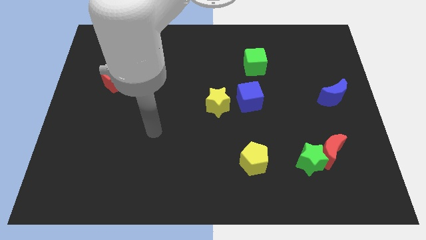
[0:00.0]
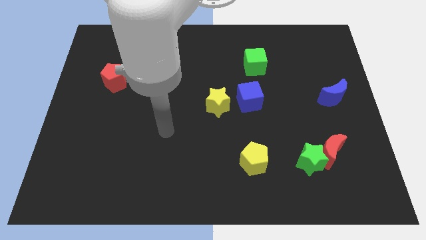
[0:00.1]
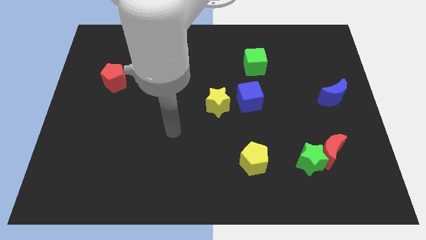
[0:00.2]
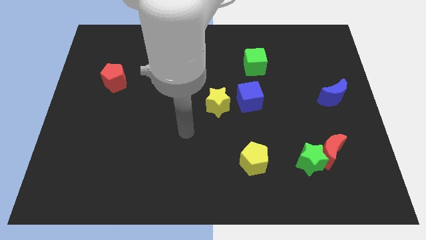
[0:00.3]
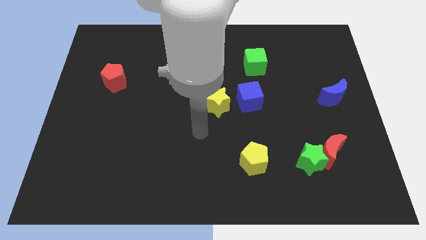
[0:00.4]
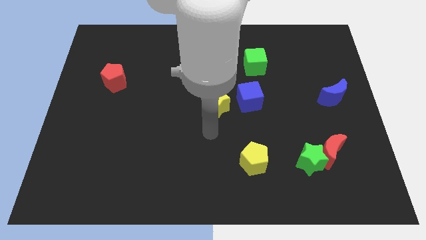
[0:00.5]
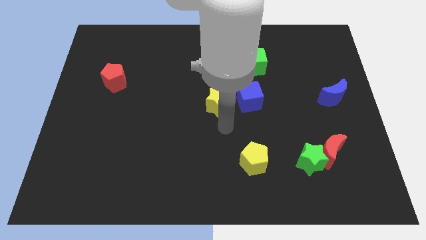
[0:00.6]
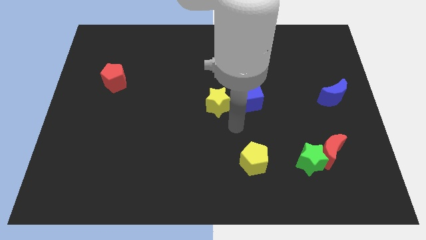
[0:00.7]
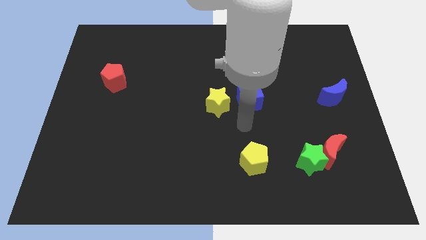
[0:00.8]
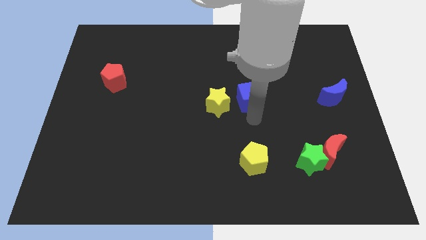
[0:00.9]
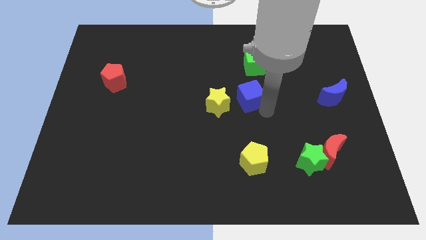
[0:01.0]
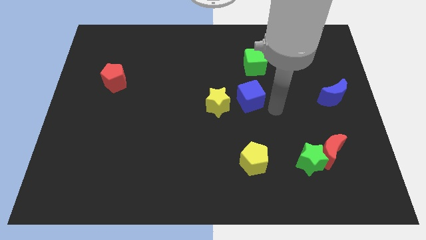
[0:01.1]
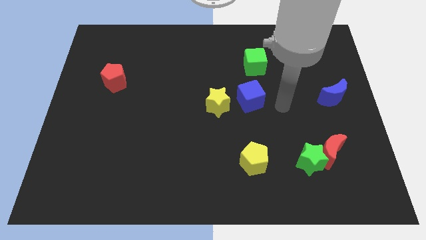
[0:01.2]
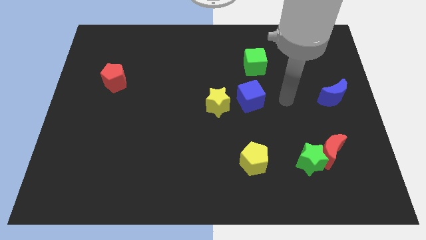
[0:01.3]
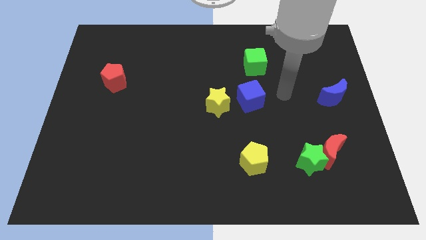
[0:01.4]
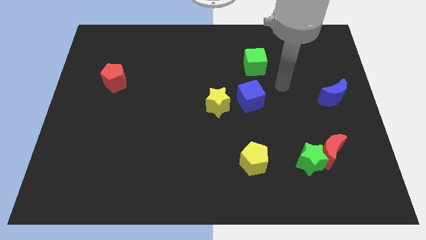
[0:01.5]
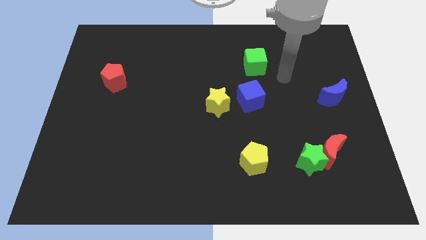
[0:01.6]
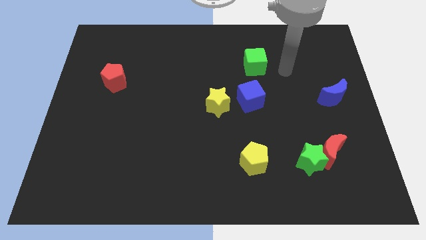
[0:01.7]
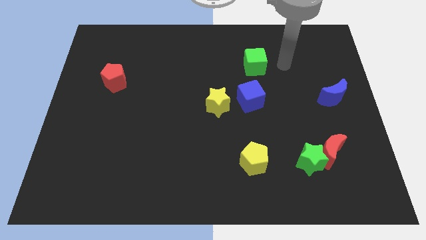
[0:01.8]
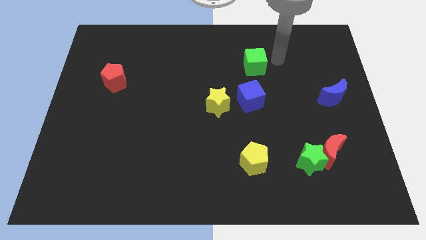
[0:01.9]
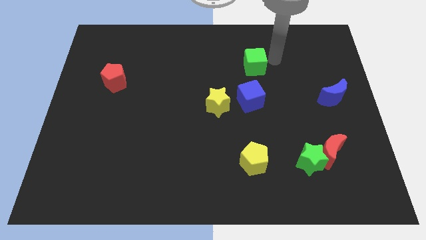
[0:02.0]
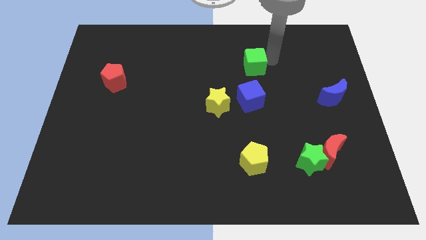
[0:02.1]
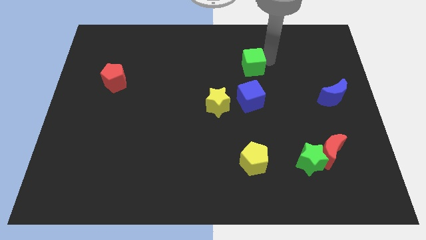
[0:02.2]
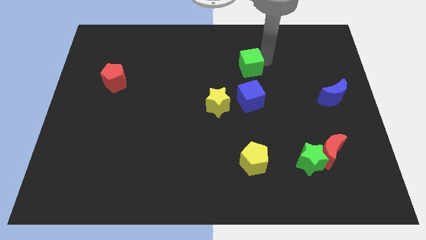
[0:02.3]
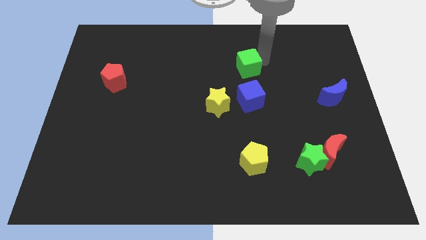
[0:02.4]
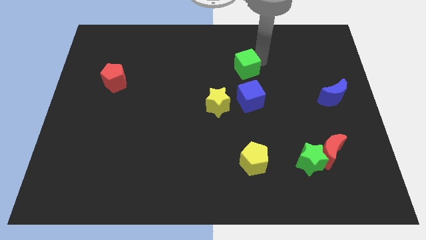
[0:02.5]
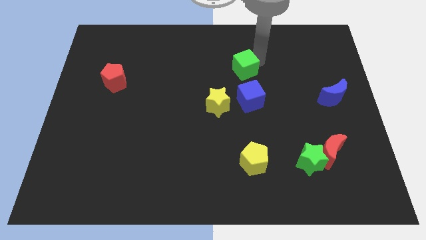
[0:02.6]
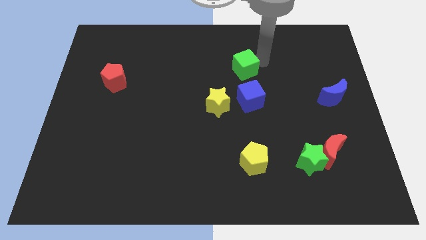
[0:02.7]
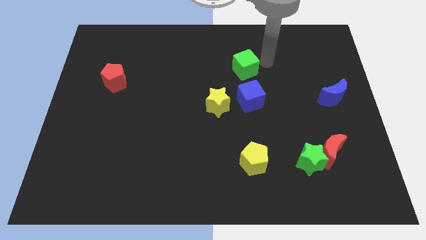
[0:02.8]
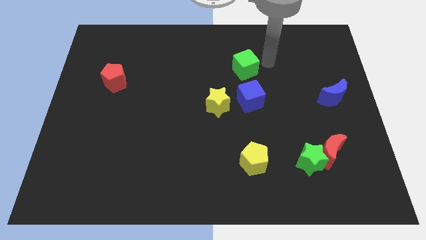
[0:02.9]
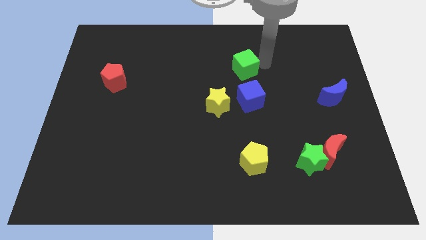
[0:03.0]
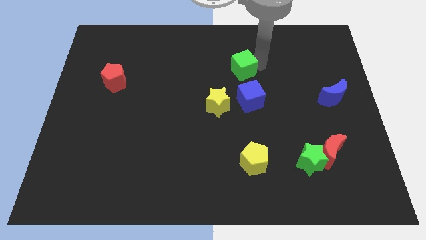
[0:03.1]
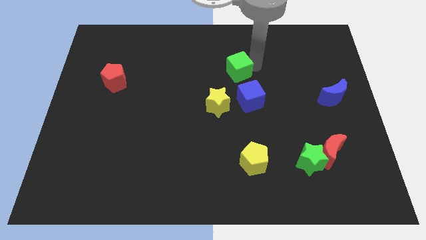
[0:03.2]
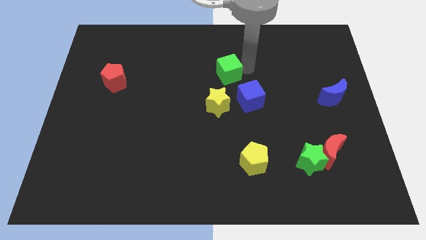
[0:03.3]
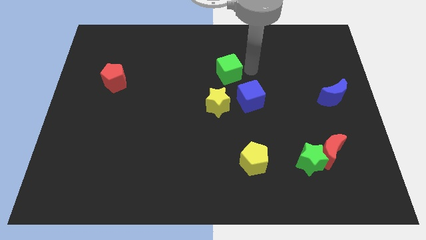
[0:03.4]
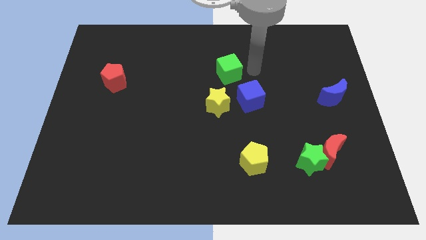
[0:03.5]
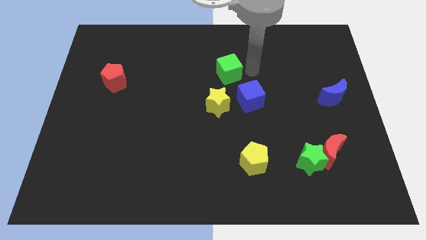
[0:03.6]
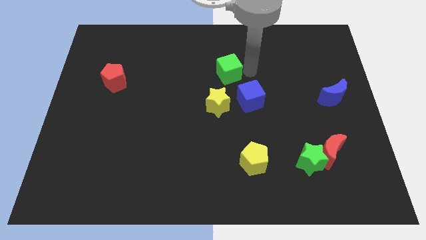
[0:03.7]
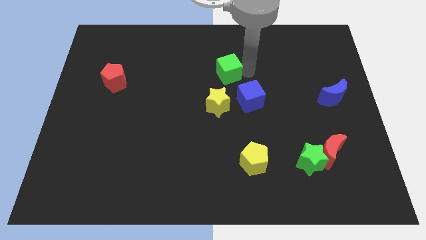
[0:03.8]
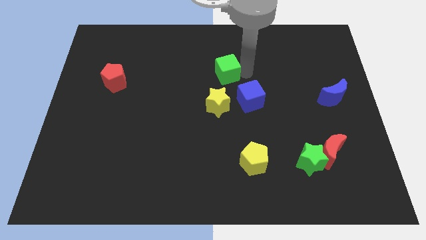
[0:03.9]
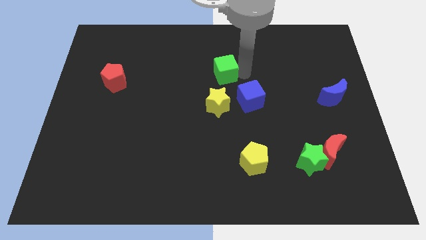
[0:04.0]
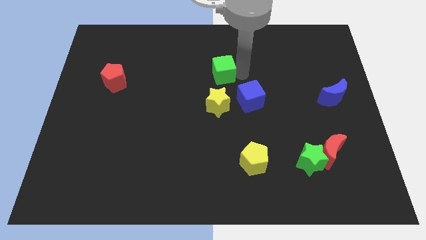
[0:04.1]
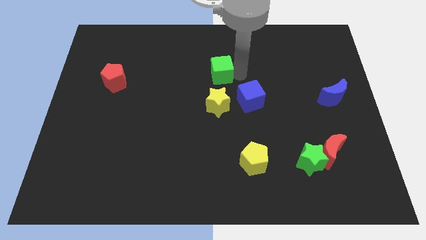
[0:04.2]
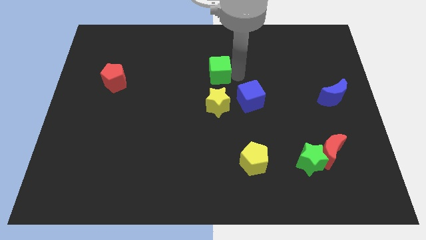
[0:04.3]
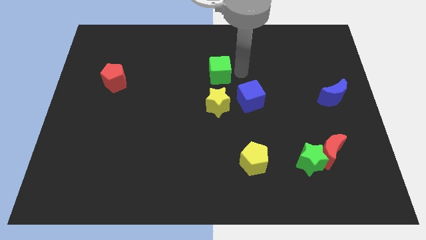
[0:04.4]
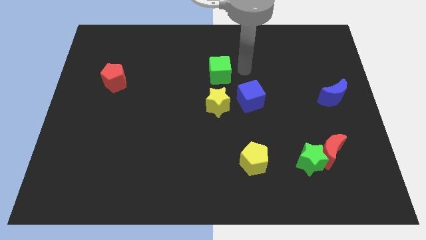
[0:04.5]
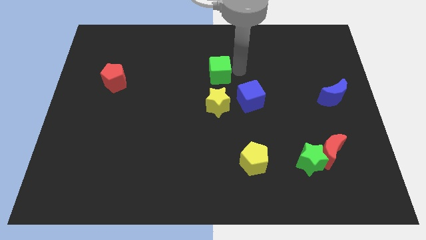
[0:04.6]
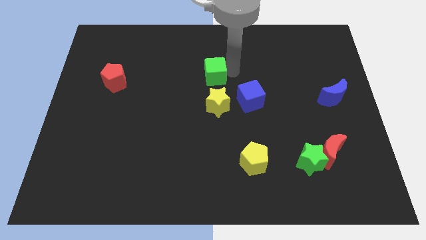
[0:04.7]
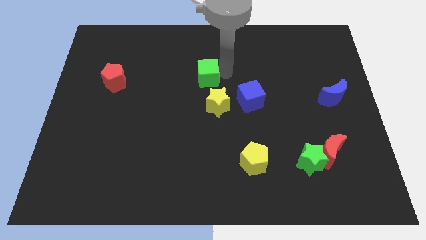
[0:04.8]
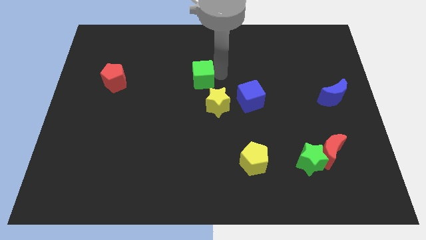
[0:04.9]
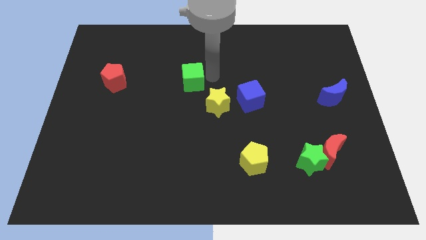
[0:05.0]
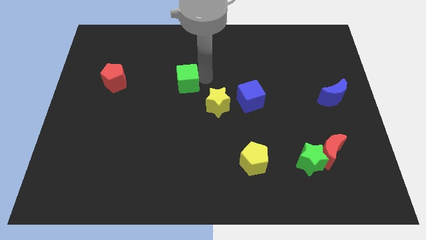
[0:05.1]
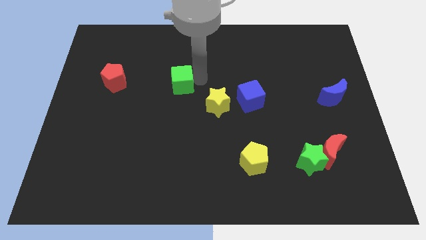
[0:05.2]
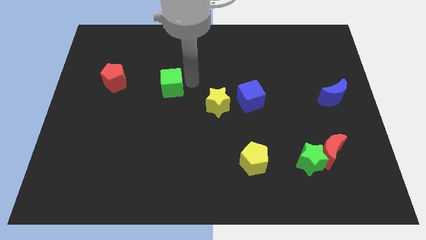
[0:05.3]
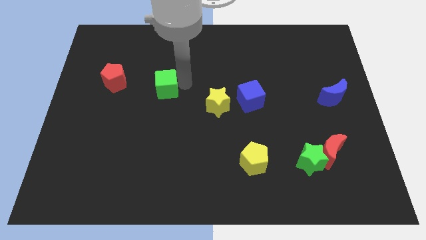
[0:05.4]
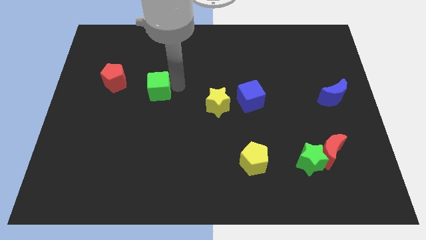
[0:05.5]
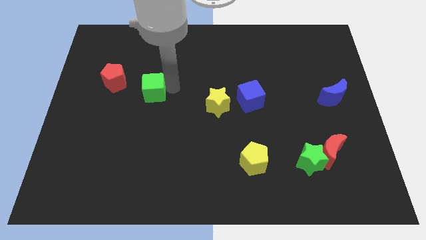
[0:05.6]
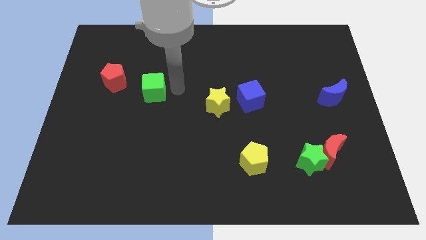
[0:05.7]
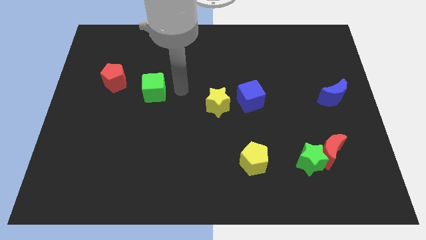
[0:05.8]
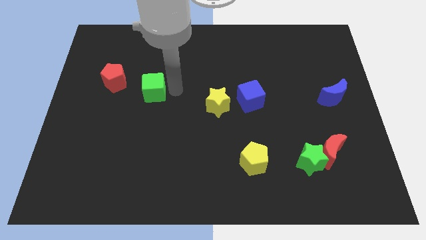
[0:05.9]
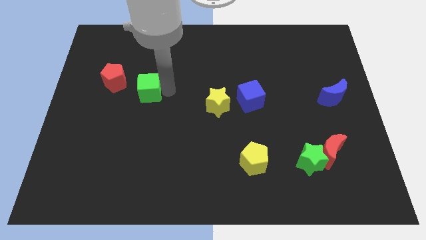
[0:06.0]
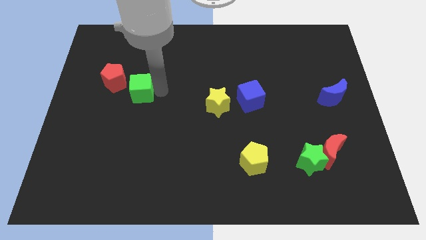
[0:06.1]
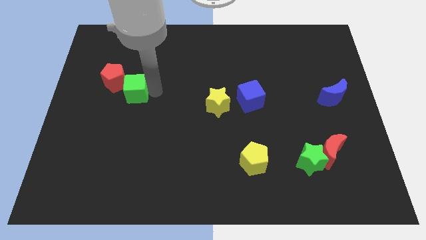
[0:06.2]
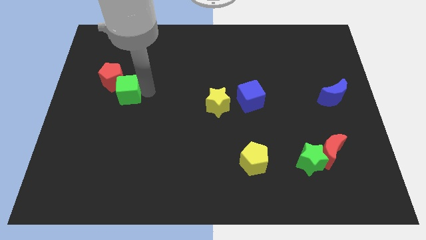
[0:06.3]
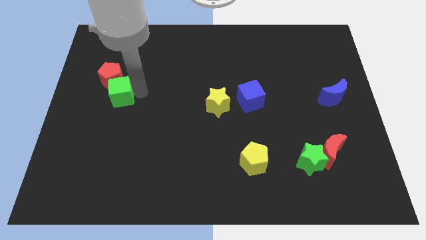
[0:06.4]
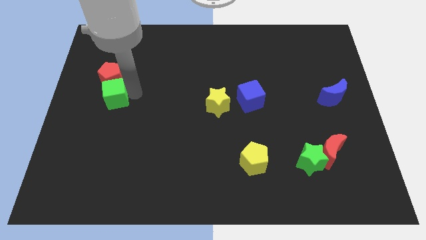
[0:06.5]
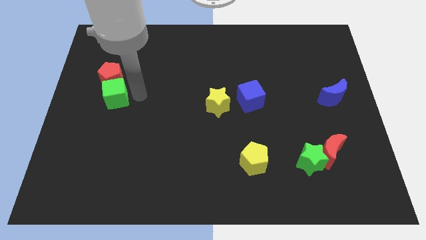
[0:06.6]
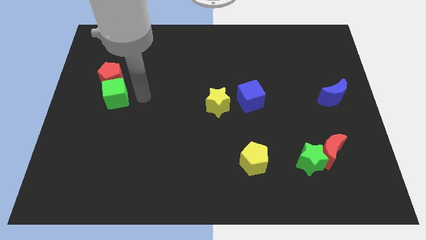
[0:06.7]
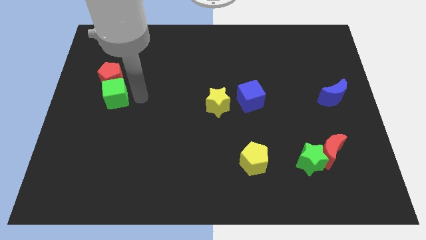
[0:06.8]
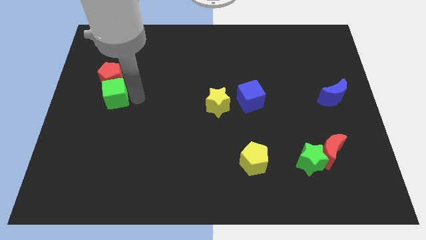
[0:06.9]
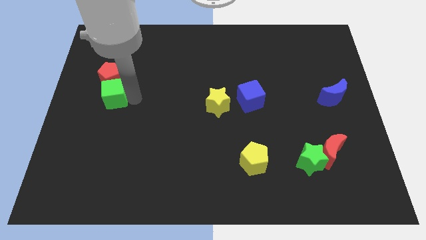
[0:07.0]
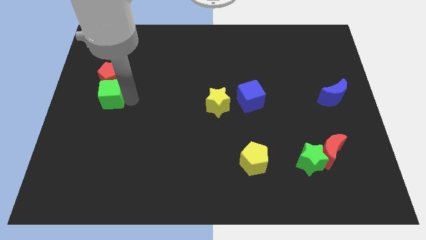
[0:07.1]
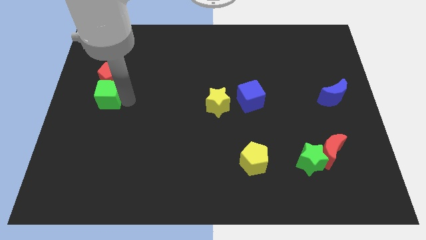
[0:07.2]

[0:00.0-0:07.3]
put the green cube to the center left

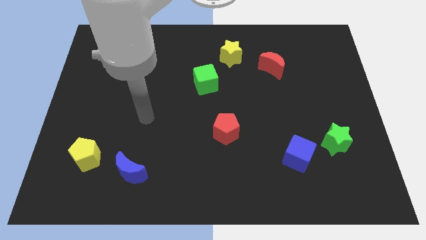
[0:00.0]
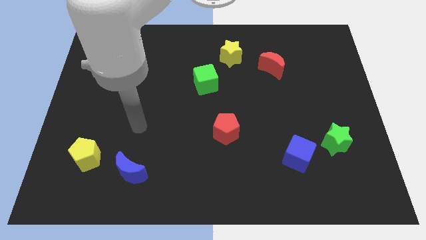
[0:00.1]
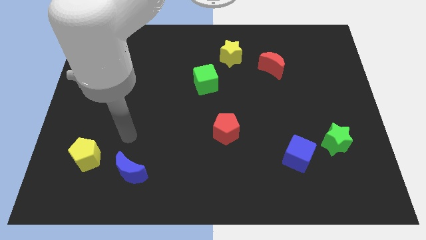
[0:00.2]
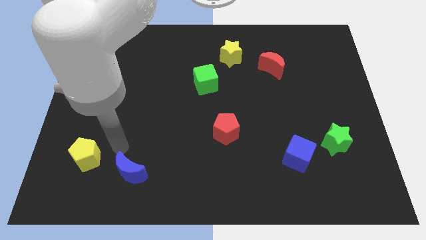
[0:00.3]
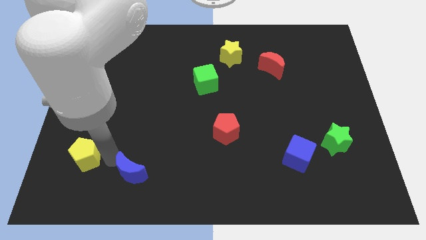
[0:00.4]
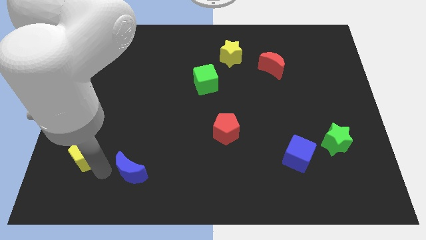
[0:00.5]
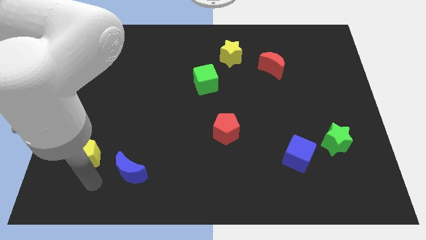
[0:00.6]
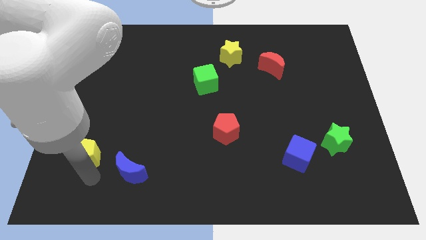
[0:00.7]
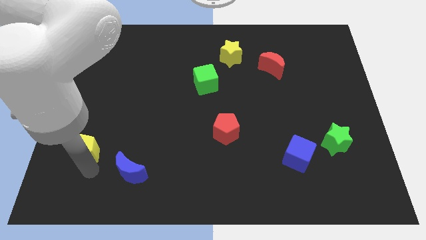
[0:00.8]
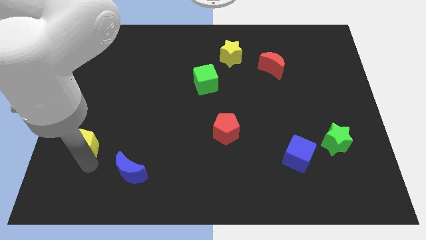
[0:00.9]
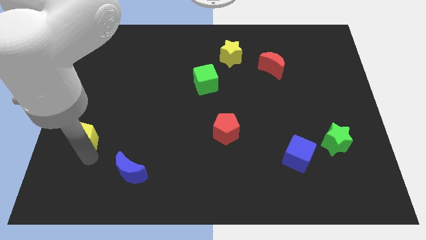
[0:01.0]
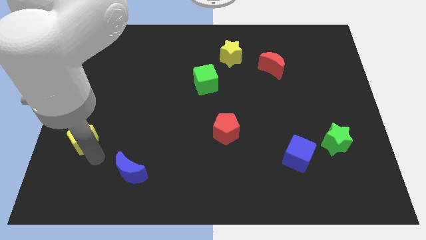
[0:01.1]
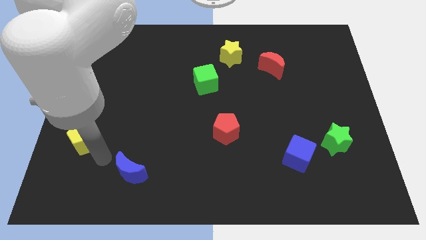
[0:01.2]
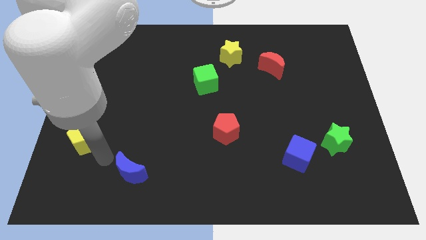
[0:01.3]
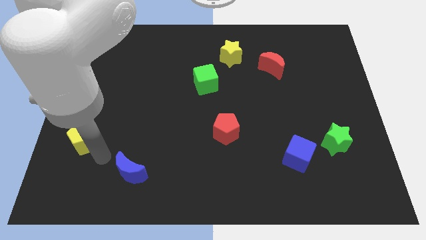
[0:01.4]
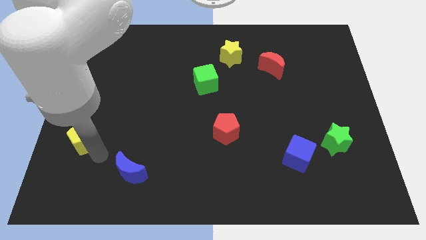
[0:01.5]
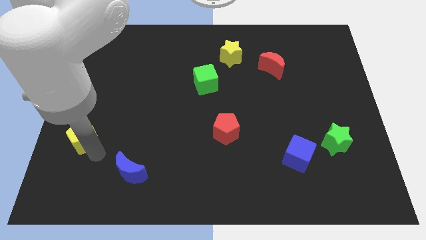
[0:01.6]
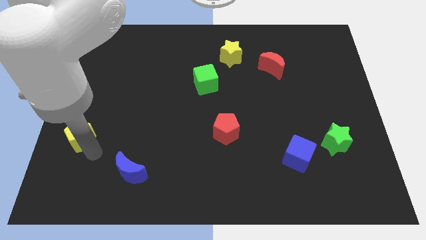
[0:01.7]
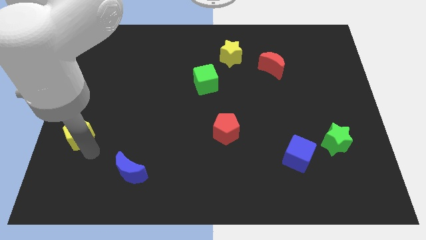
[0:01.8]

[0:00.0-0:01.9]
move the yellow pentagon to the left side
